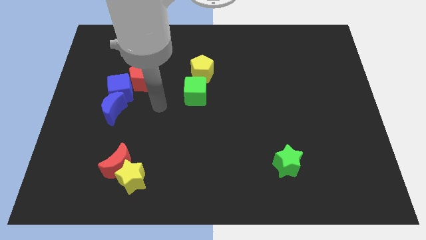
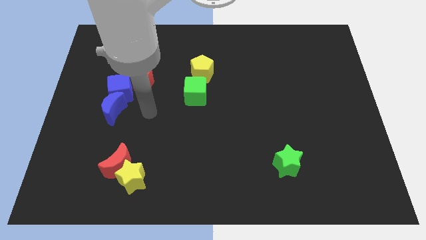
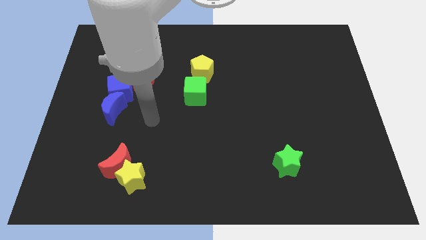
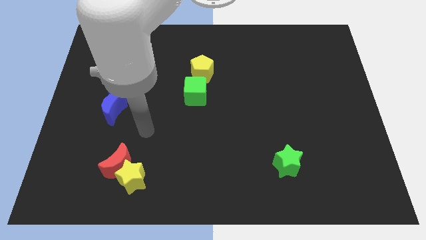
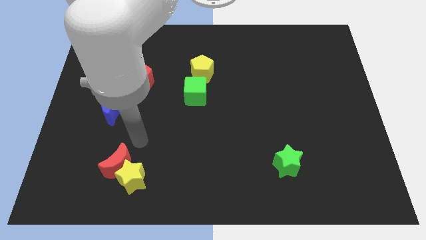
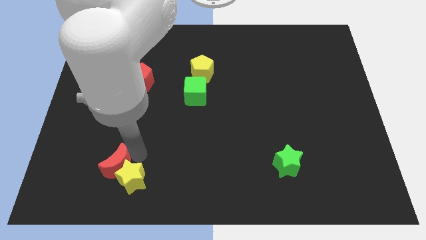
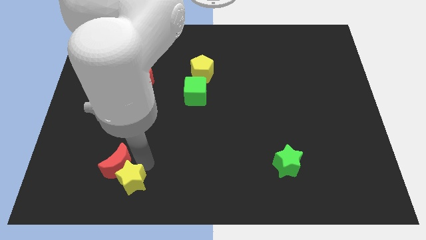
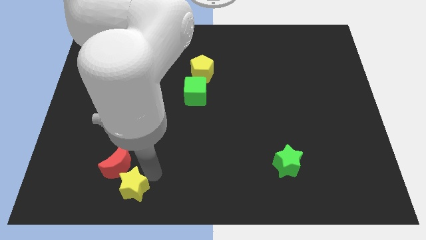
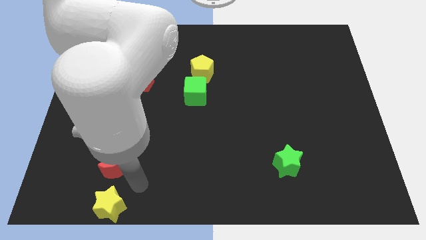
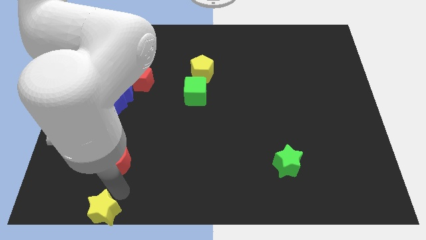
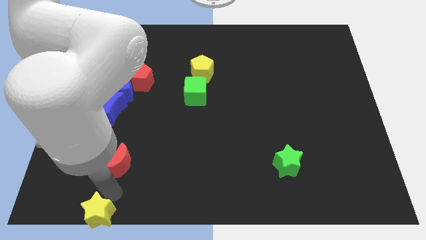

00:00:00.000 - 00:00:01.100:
pull the red moon apart from the yellow star

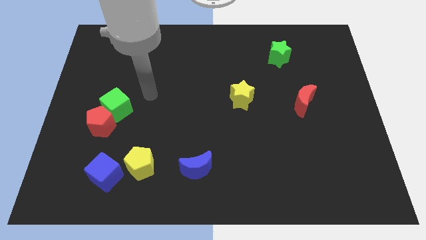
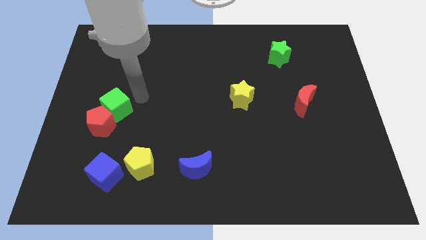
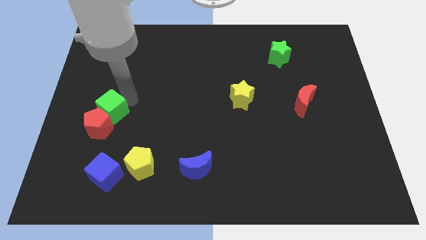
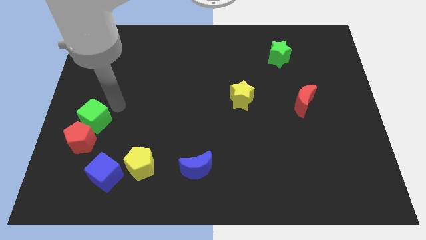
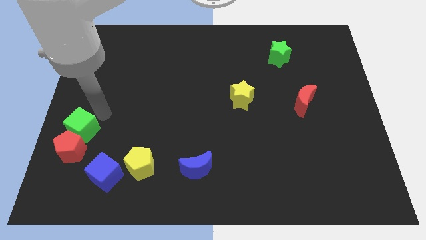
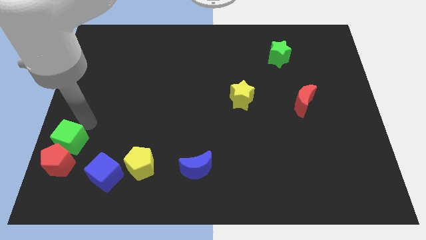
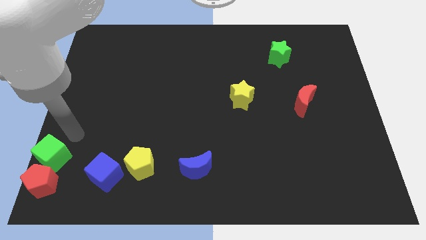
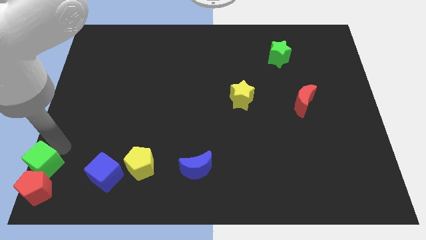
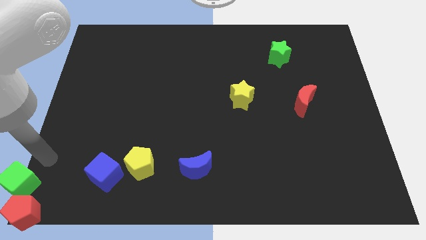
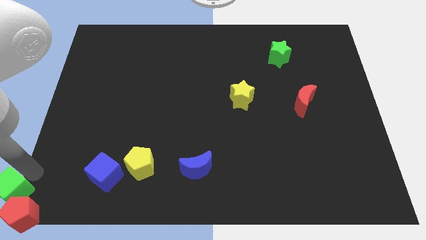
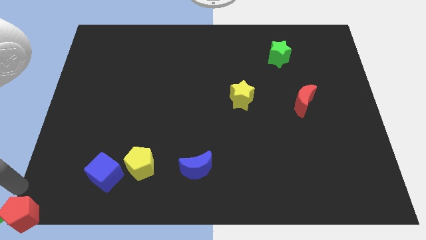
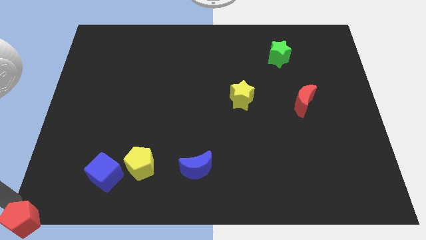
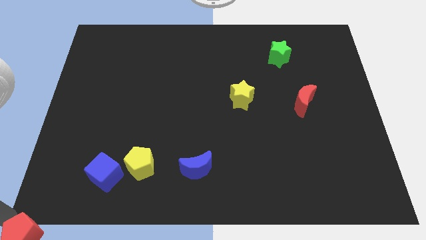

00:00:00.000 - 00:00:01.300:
move the red pentagon away from the green cube

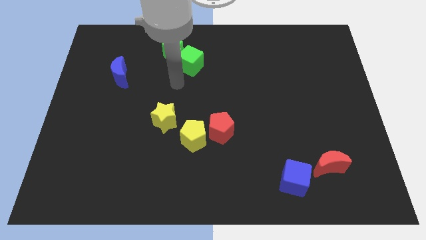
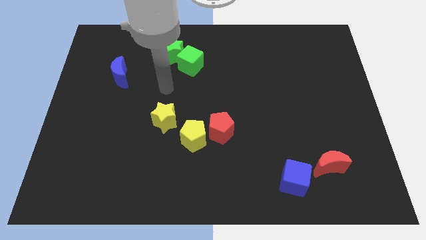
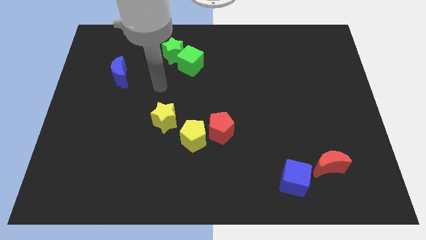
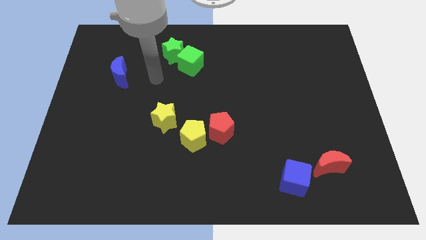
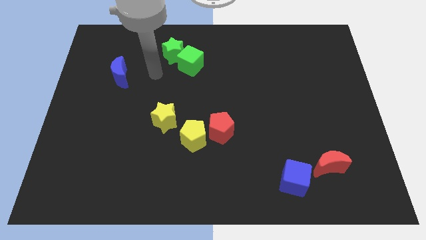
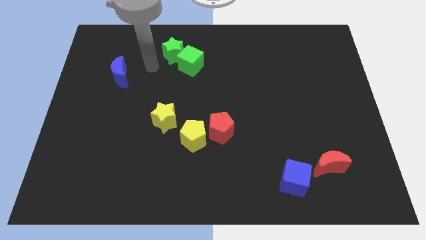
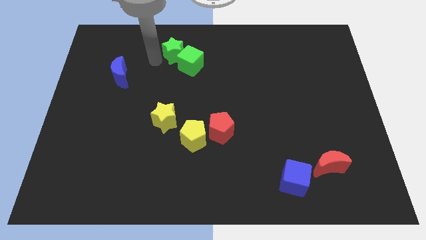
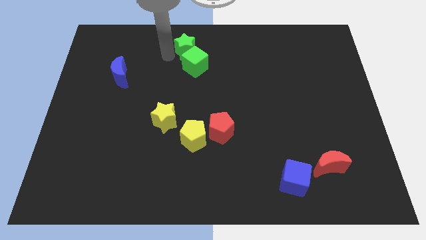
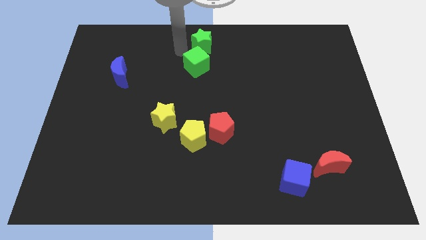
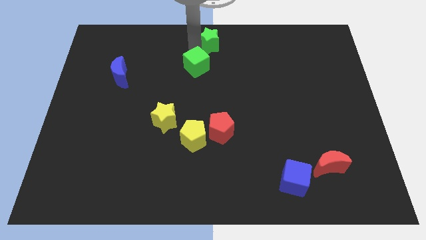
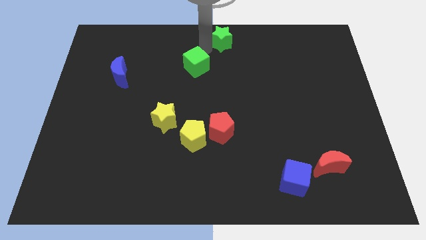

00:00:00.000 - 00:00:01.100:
separate the green cube from the green star

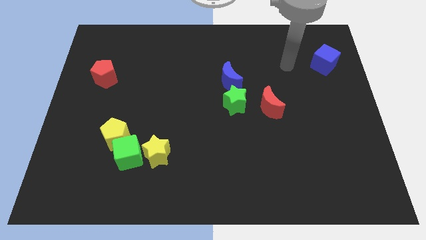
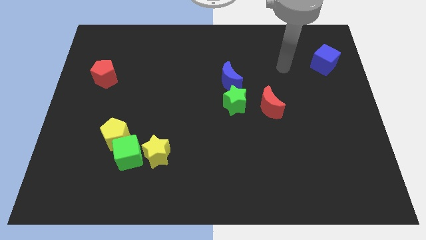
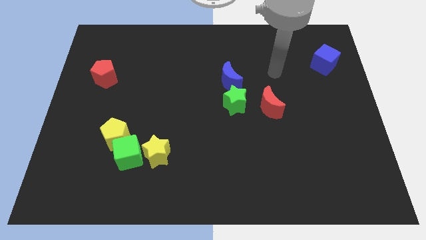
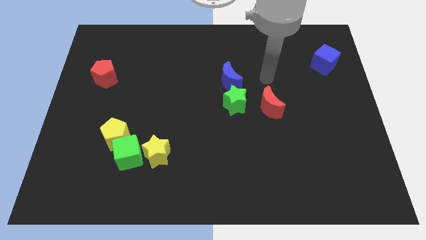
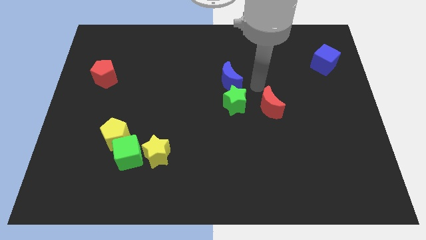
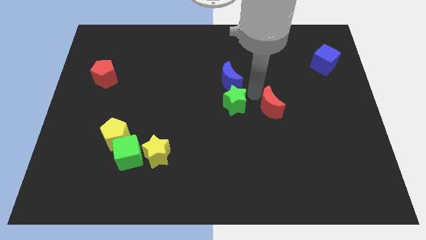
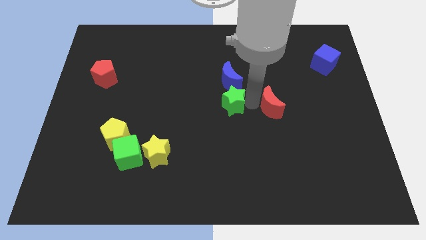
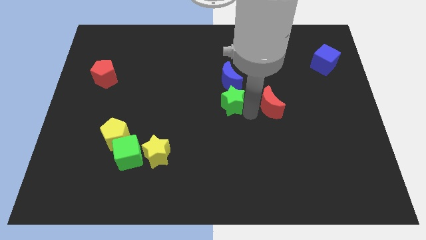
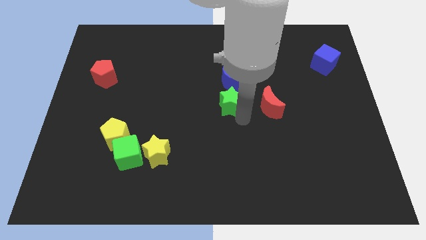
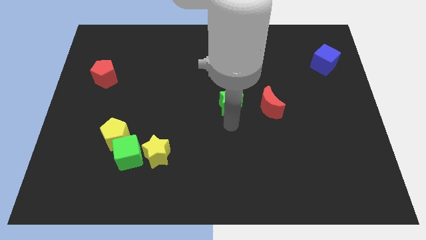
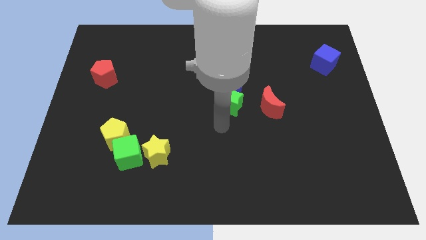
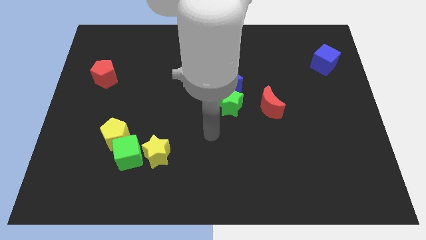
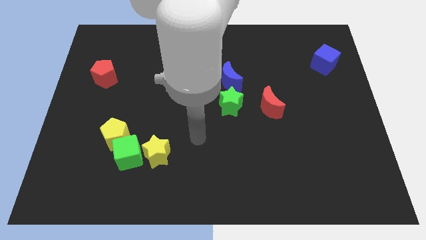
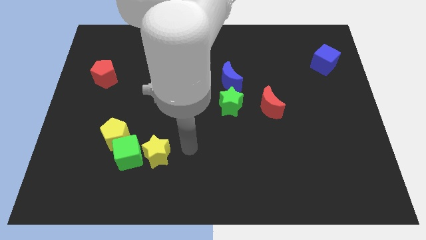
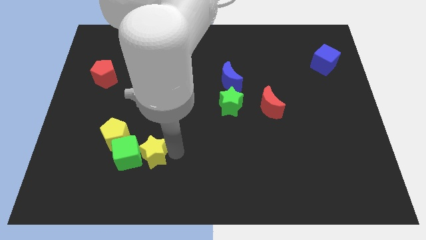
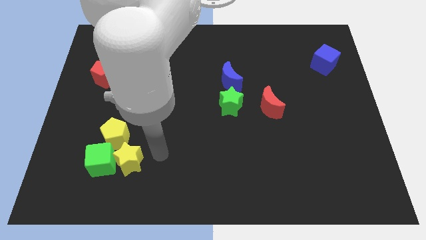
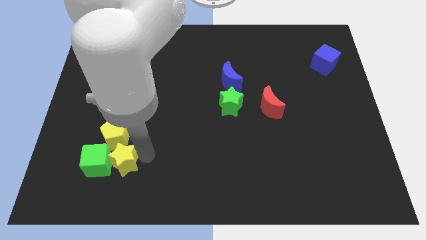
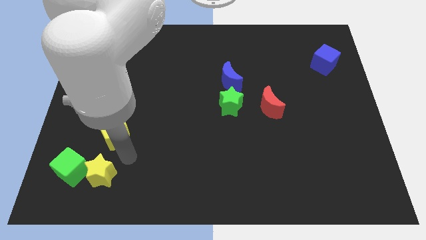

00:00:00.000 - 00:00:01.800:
move the yellow pentagon away from the green cube

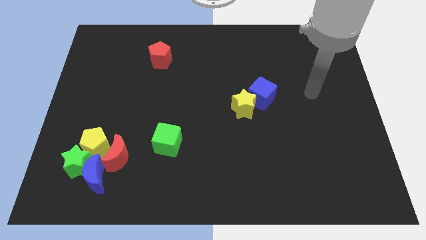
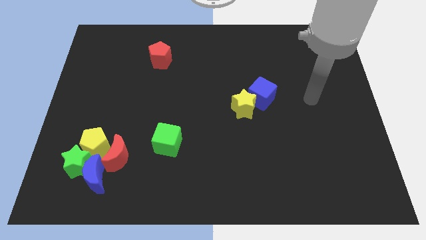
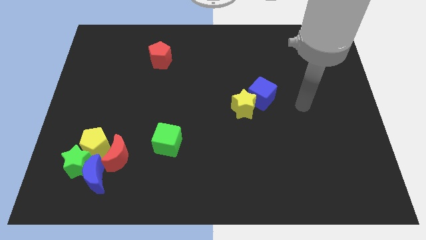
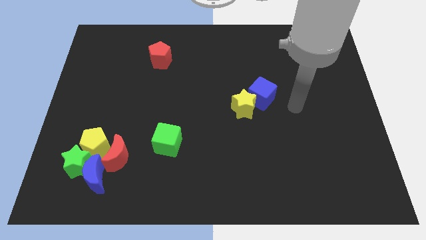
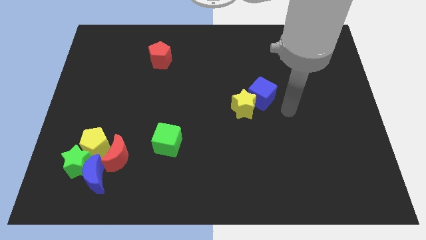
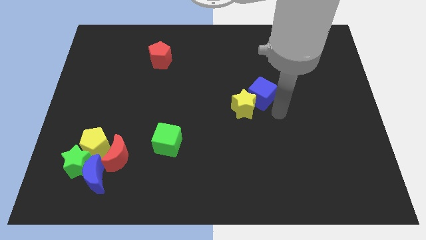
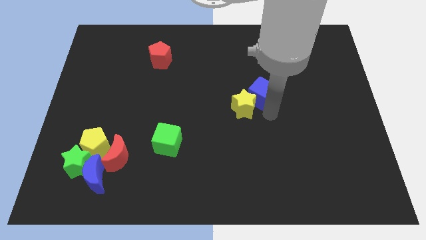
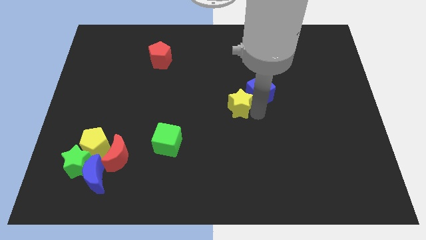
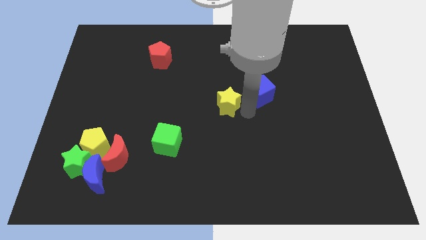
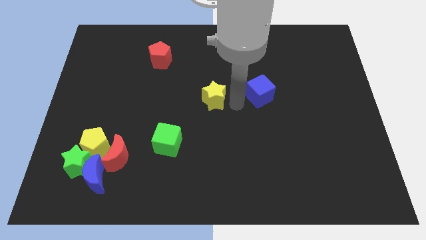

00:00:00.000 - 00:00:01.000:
pull the blue cube apart from the yellow star

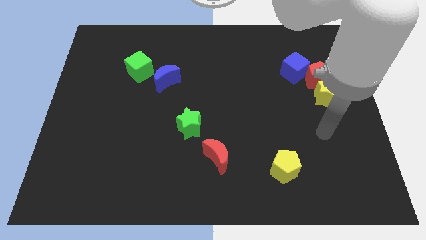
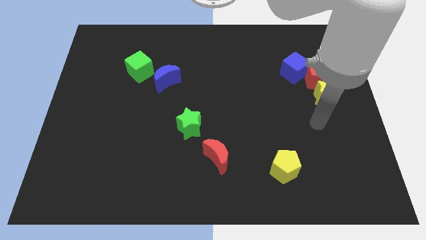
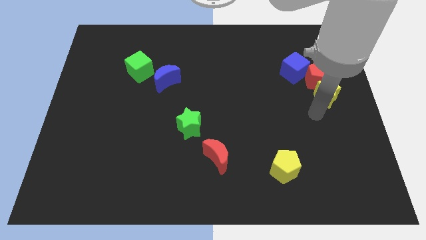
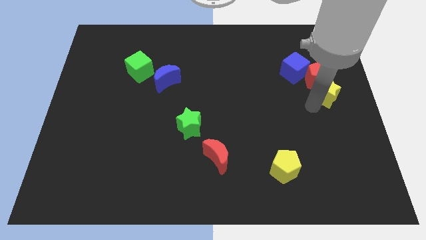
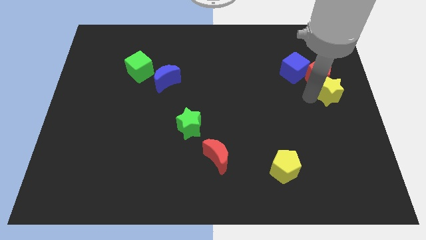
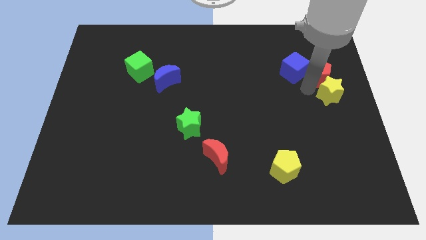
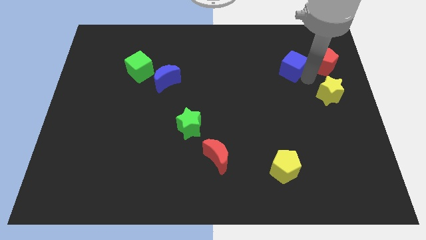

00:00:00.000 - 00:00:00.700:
move the yellow star away from the red pentagon

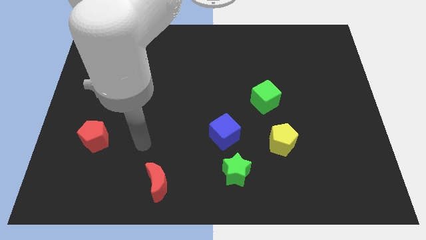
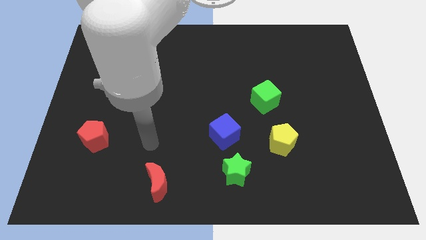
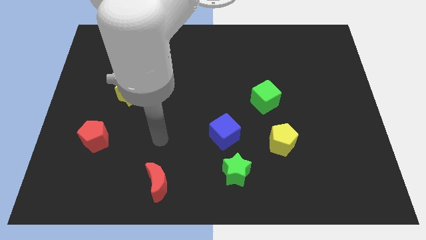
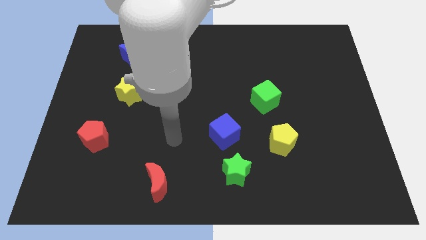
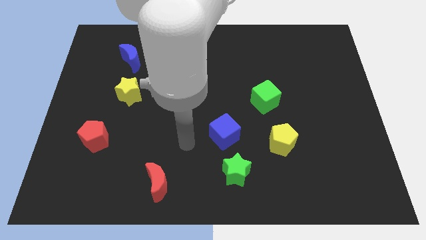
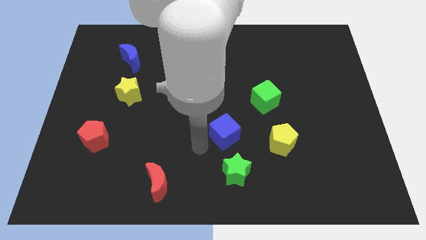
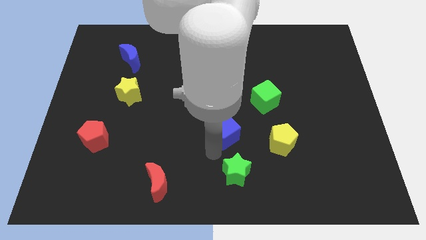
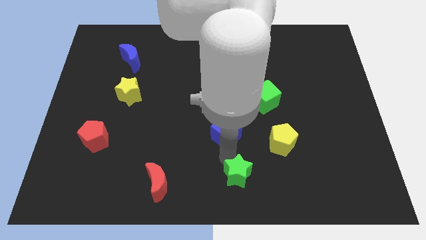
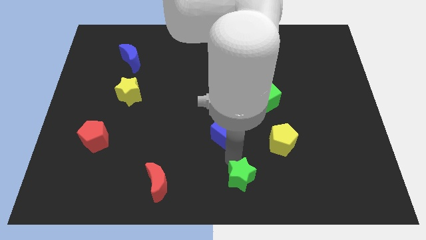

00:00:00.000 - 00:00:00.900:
separate the blue cube from the green star

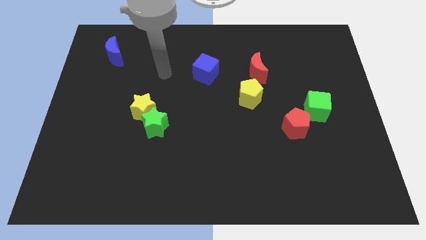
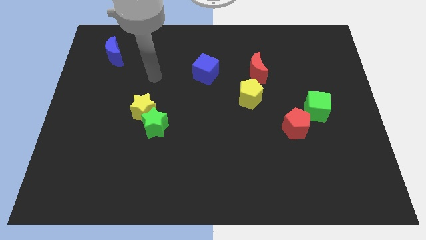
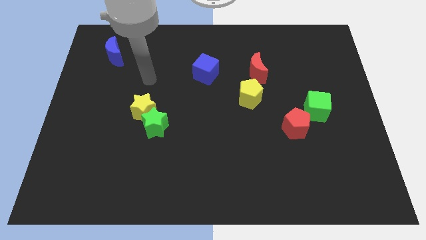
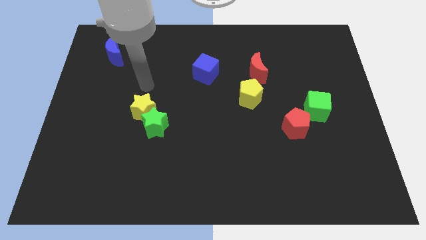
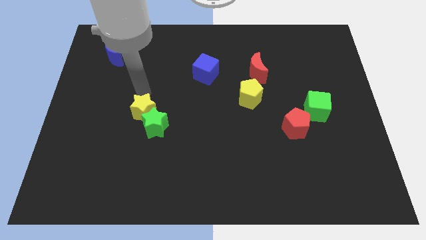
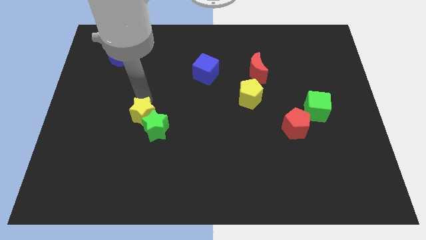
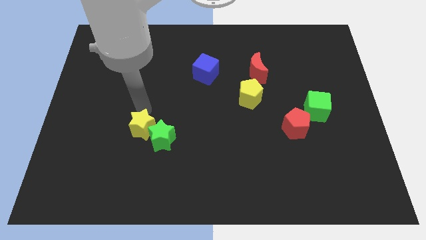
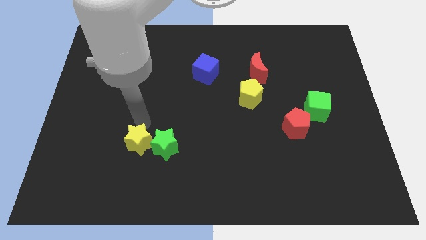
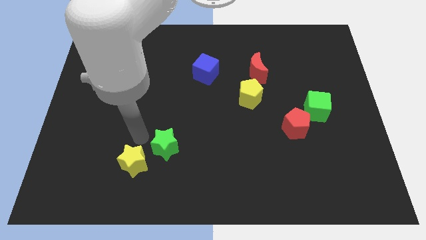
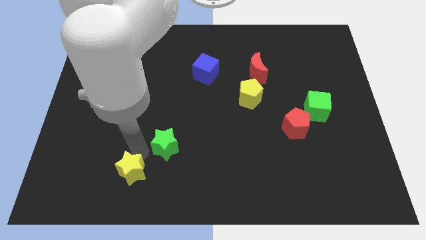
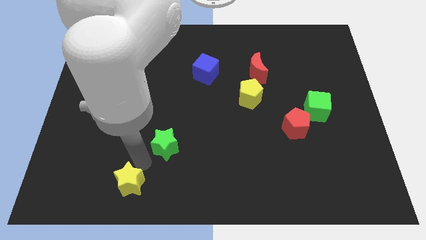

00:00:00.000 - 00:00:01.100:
move the green star away from the yellow star

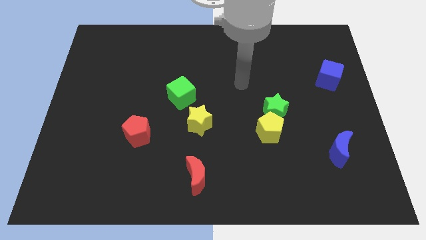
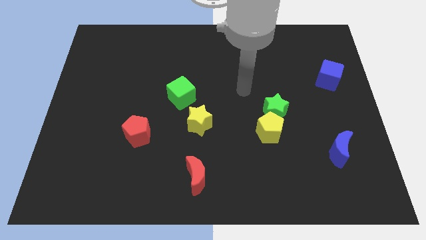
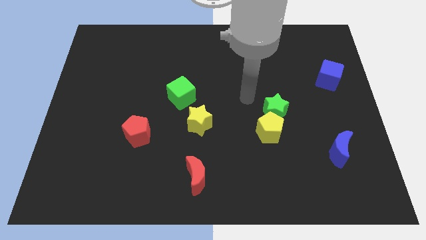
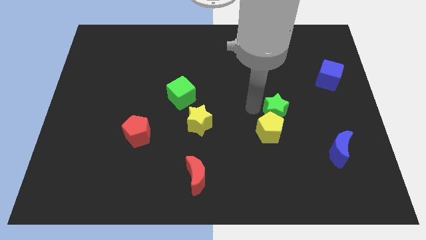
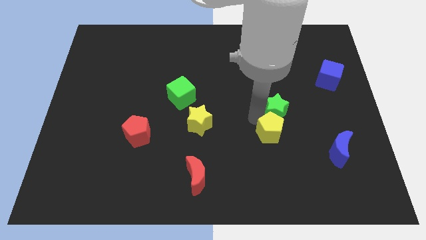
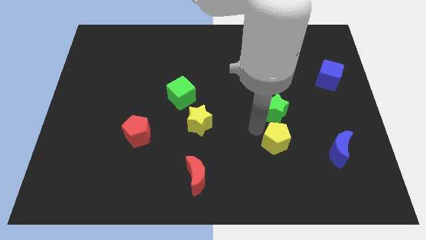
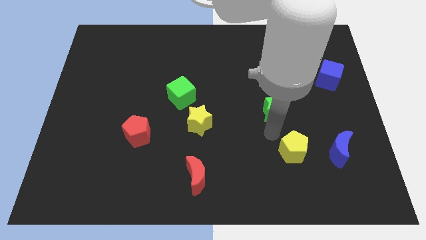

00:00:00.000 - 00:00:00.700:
move the green star away from the yellow pentagon
